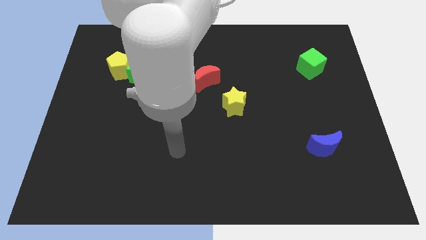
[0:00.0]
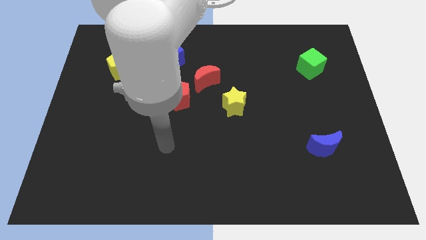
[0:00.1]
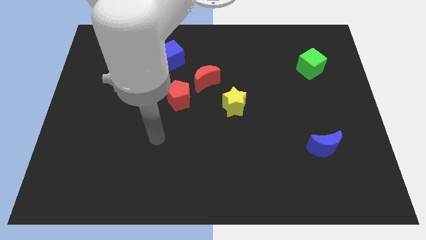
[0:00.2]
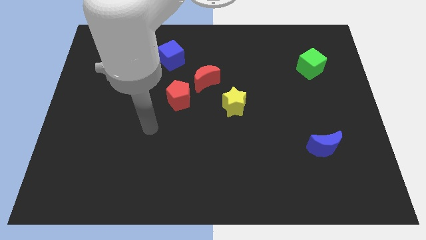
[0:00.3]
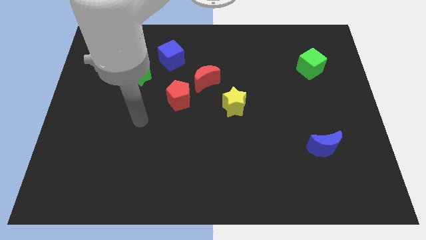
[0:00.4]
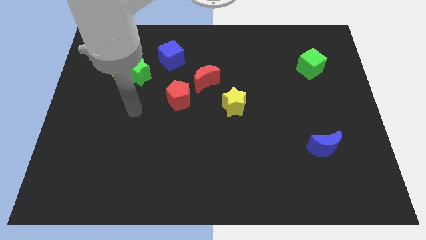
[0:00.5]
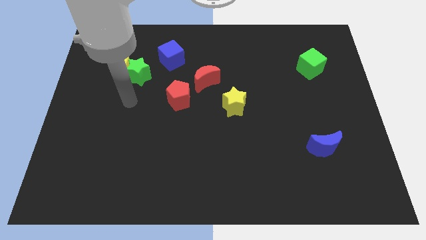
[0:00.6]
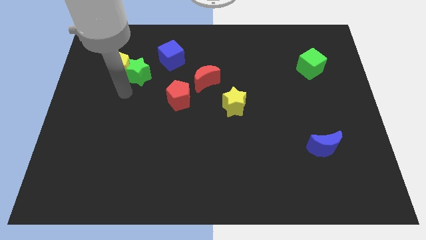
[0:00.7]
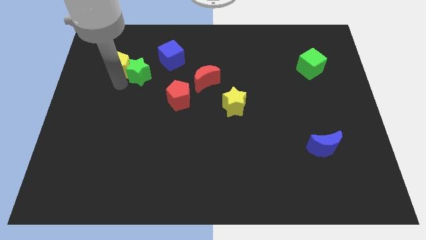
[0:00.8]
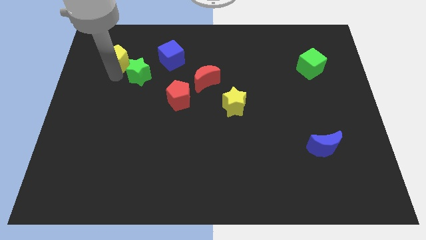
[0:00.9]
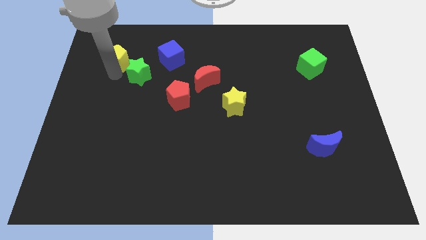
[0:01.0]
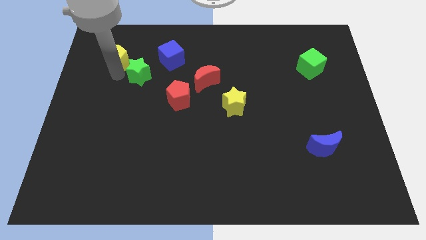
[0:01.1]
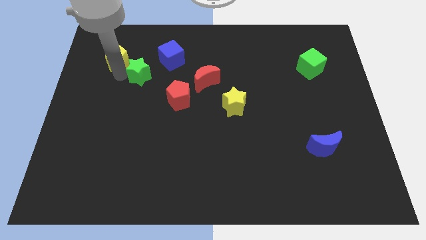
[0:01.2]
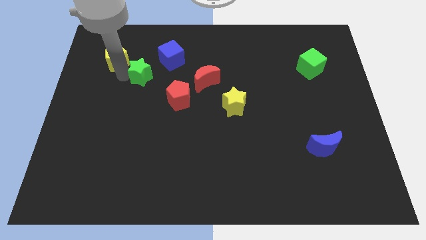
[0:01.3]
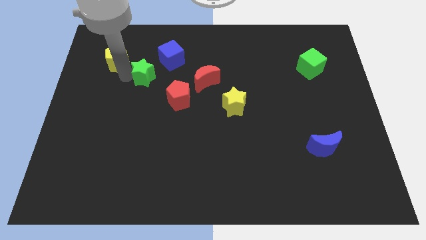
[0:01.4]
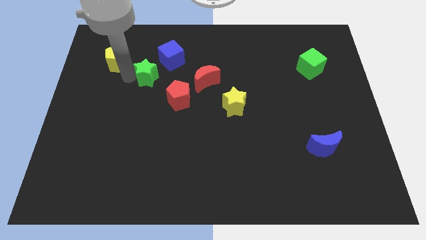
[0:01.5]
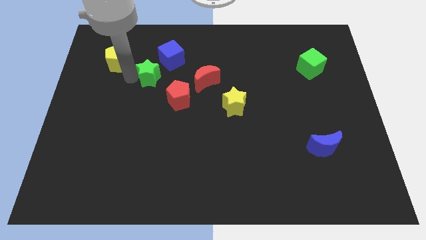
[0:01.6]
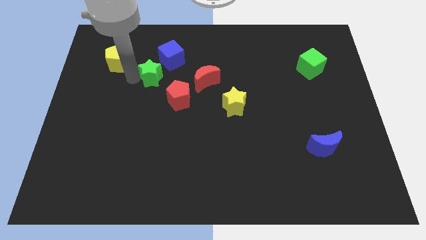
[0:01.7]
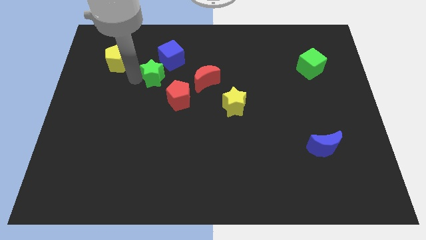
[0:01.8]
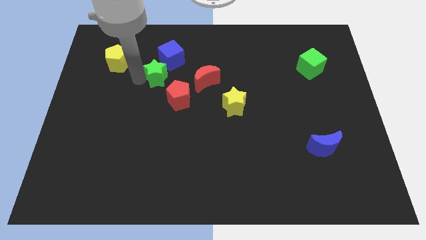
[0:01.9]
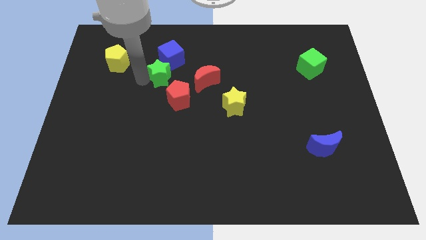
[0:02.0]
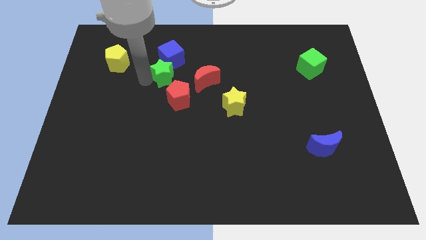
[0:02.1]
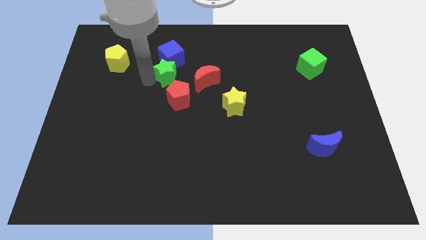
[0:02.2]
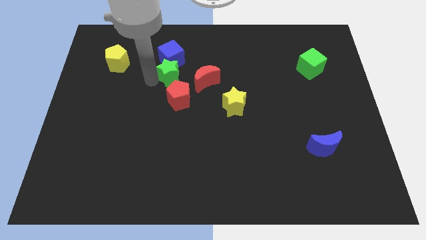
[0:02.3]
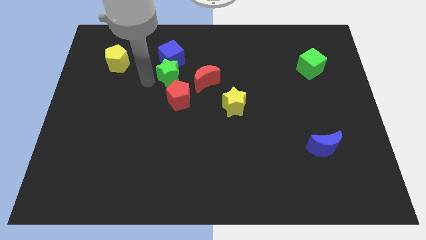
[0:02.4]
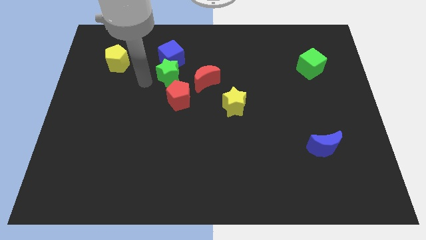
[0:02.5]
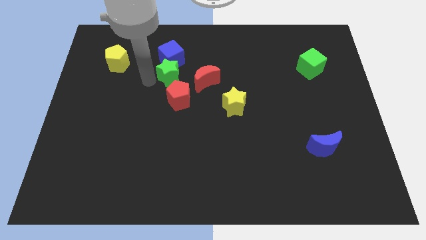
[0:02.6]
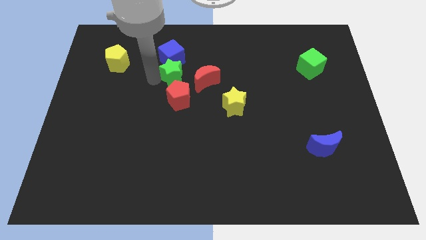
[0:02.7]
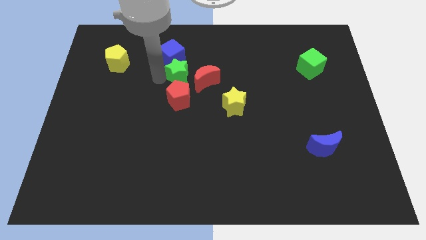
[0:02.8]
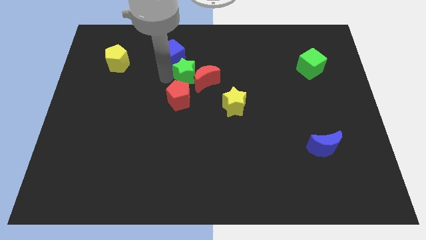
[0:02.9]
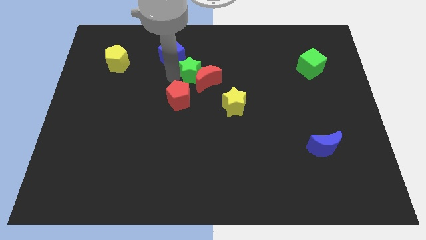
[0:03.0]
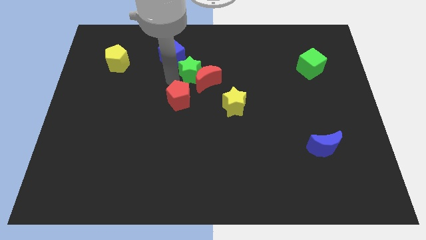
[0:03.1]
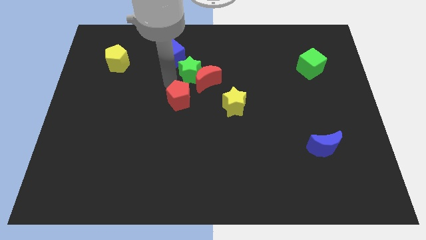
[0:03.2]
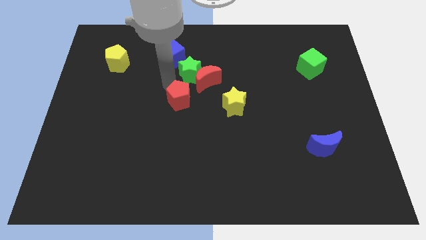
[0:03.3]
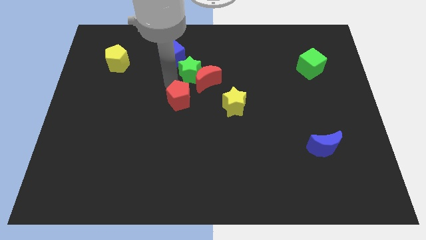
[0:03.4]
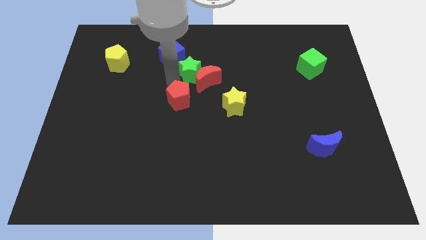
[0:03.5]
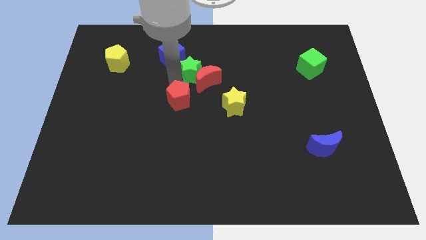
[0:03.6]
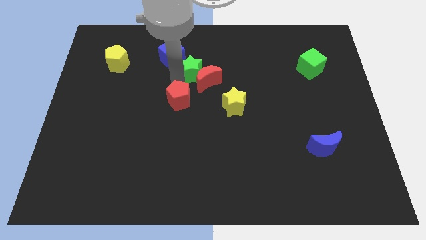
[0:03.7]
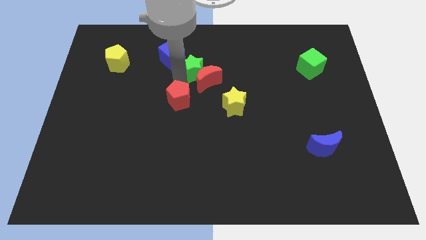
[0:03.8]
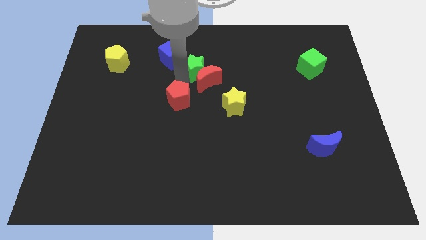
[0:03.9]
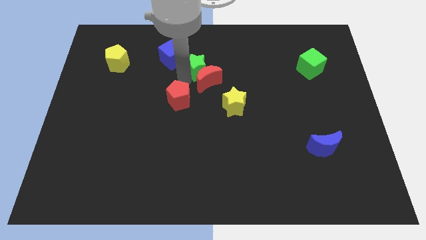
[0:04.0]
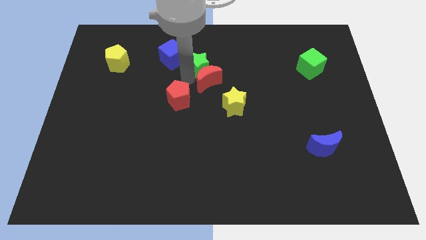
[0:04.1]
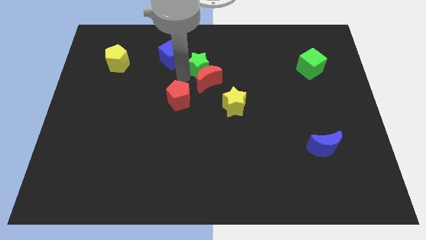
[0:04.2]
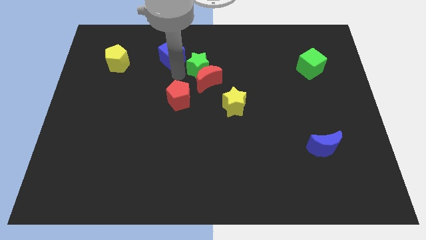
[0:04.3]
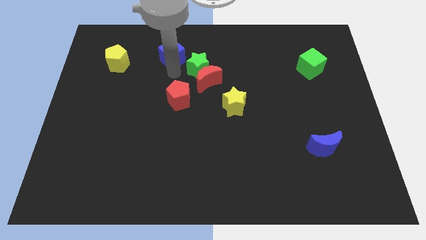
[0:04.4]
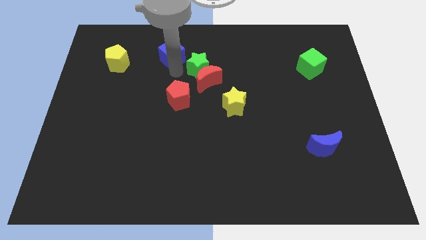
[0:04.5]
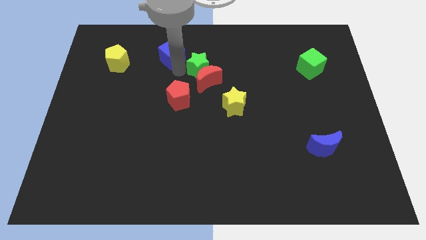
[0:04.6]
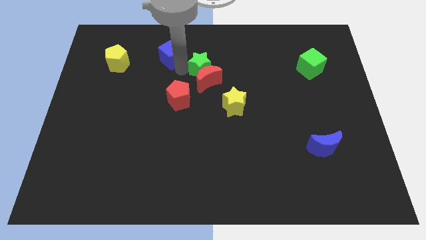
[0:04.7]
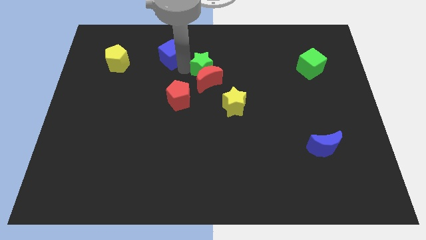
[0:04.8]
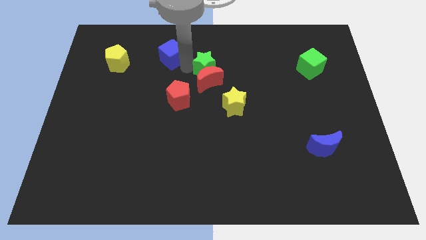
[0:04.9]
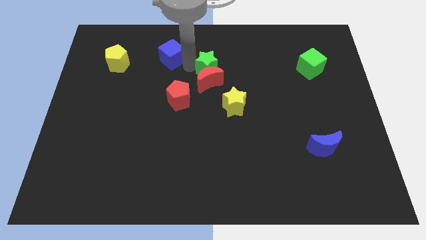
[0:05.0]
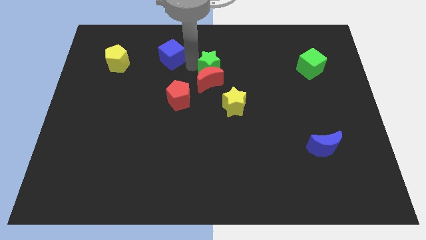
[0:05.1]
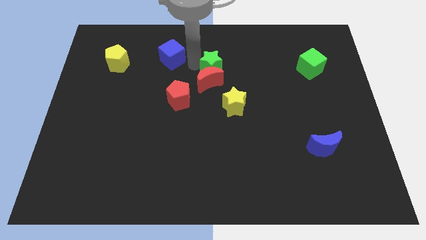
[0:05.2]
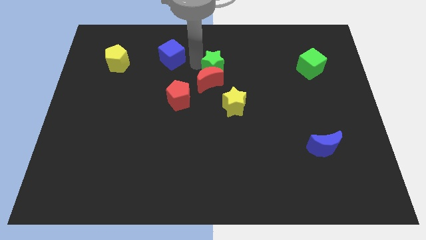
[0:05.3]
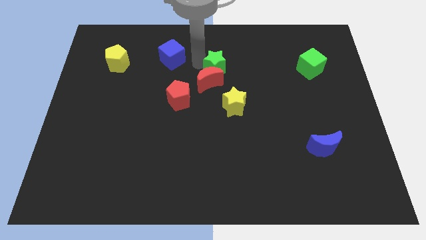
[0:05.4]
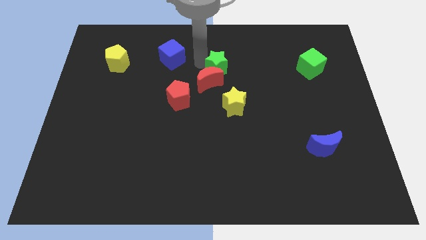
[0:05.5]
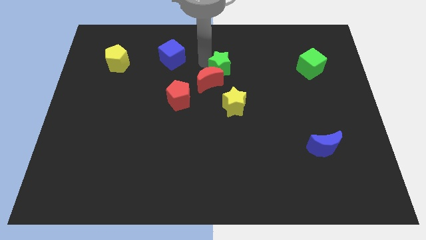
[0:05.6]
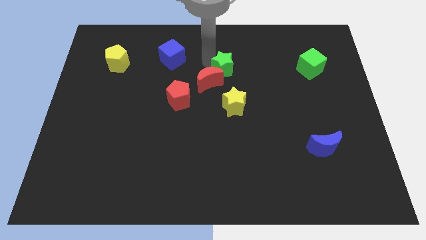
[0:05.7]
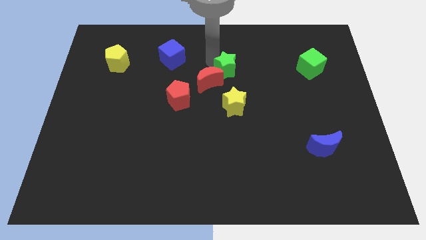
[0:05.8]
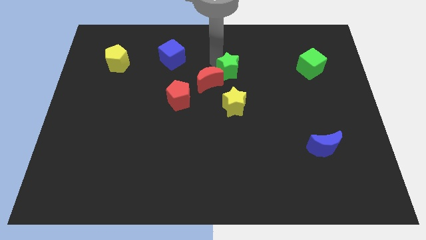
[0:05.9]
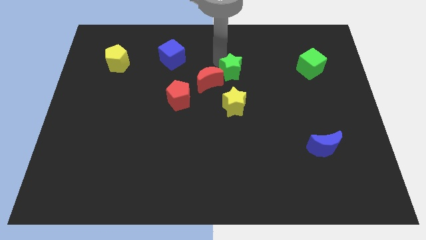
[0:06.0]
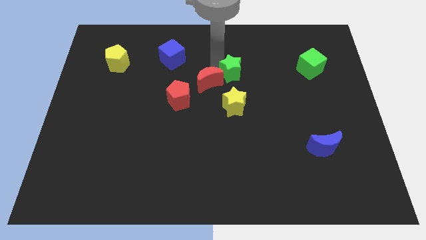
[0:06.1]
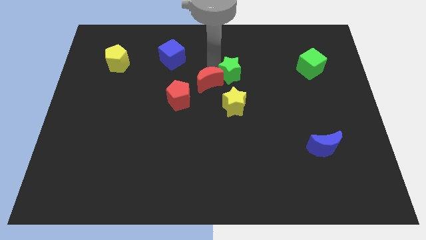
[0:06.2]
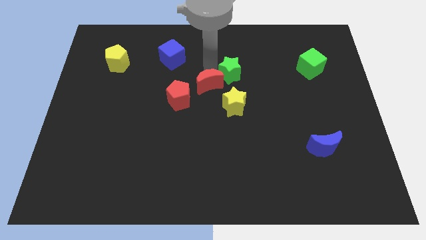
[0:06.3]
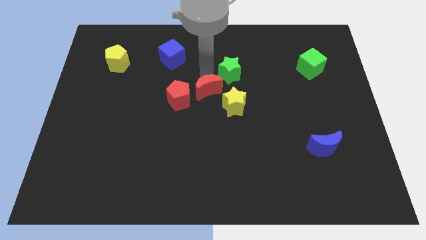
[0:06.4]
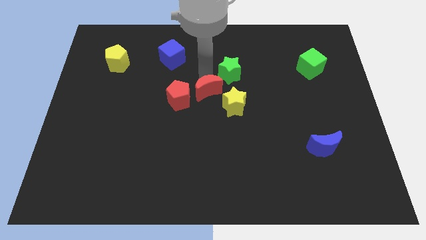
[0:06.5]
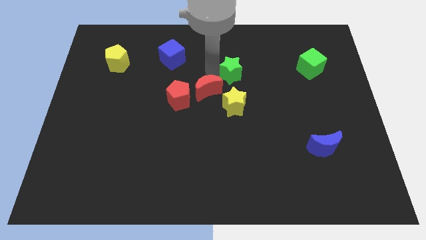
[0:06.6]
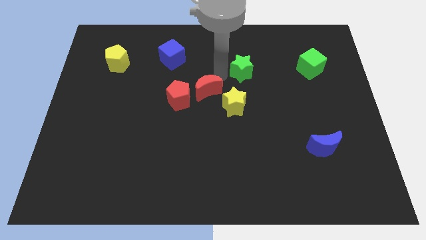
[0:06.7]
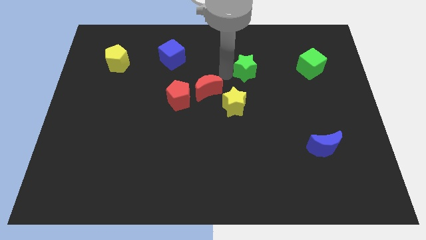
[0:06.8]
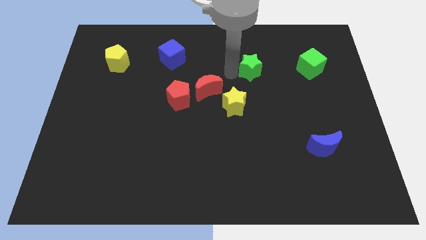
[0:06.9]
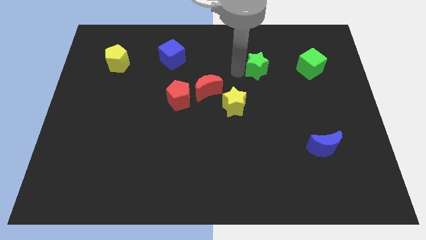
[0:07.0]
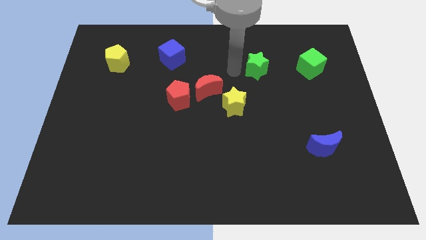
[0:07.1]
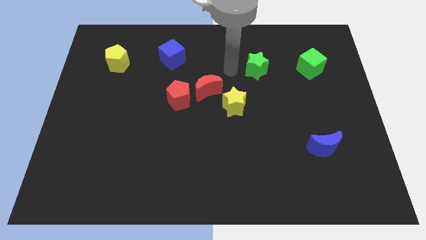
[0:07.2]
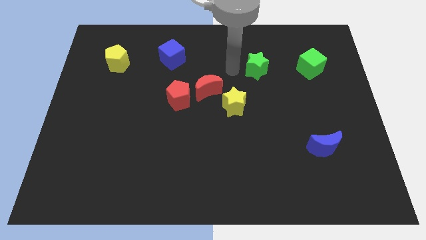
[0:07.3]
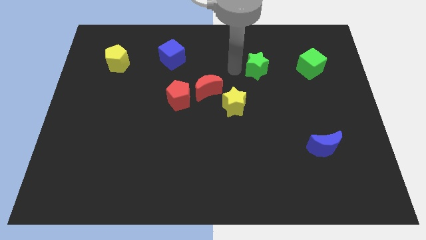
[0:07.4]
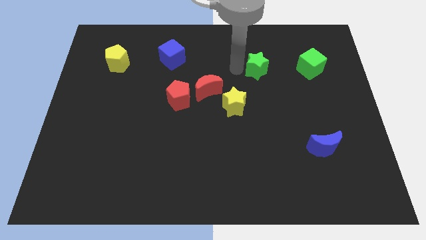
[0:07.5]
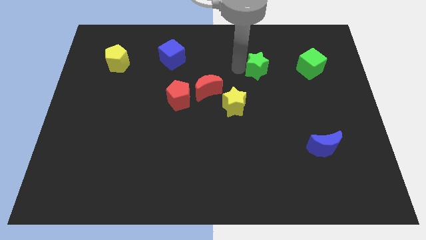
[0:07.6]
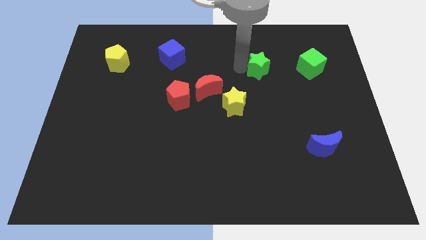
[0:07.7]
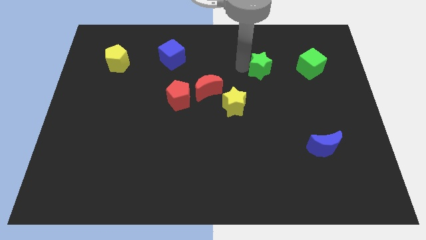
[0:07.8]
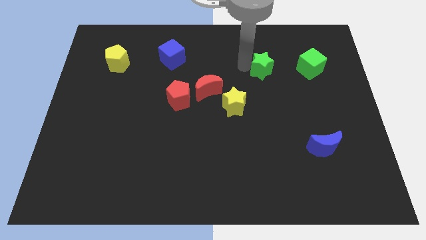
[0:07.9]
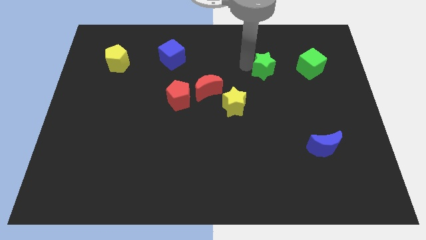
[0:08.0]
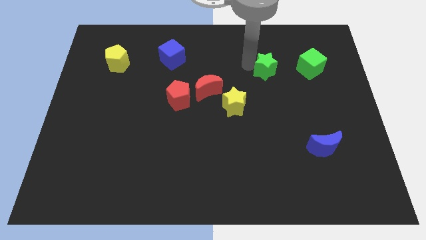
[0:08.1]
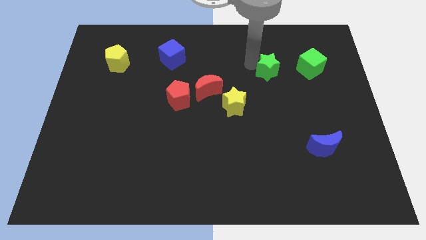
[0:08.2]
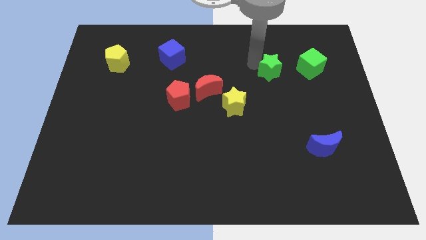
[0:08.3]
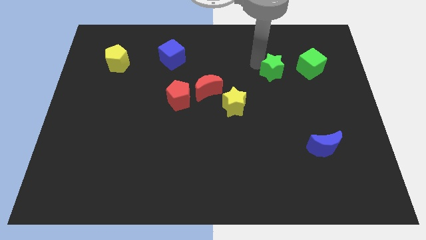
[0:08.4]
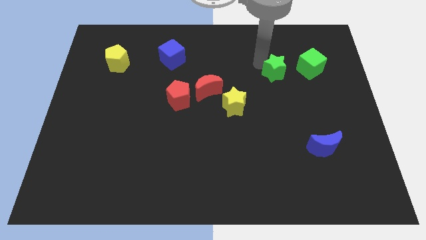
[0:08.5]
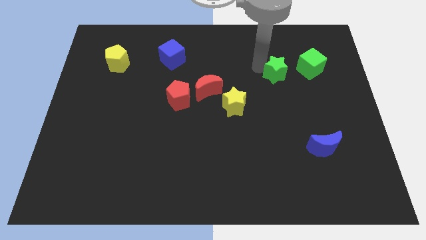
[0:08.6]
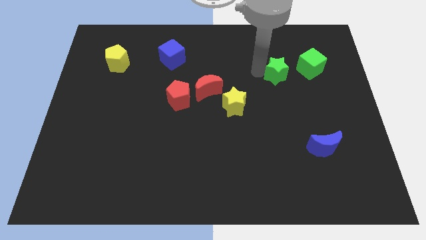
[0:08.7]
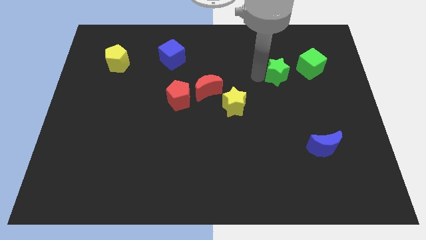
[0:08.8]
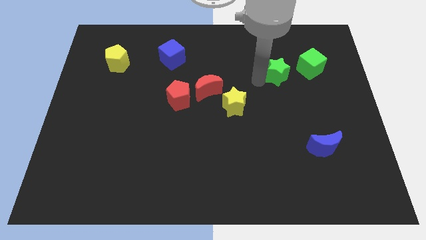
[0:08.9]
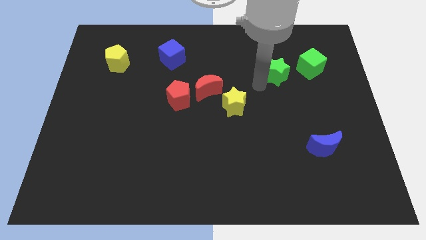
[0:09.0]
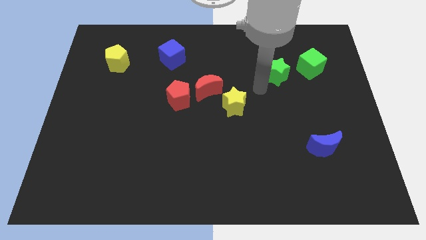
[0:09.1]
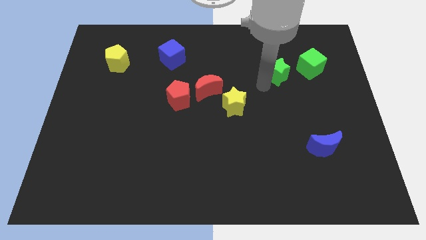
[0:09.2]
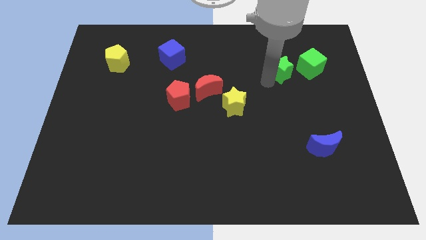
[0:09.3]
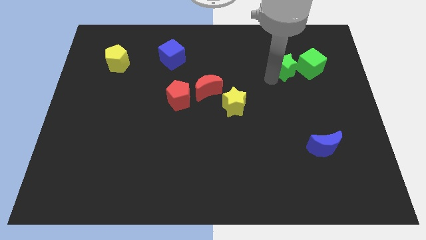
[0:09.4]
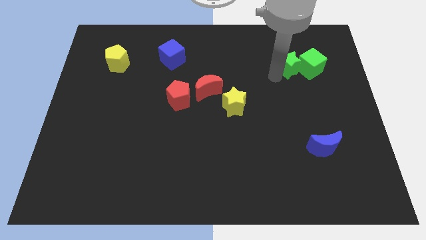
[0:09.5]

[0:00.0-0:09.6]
put the green star towards the green cube
